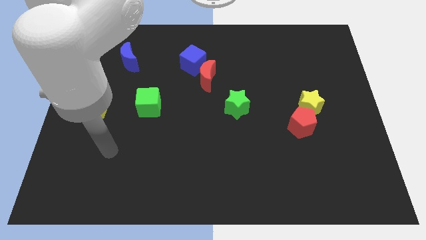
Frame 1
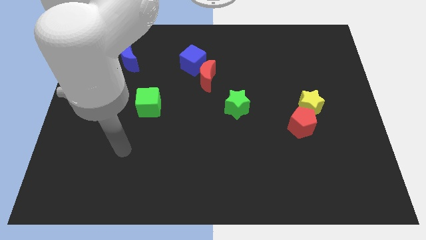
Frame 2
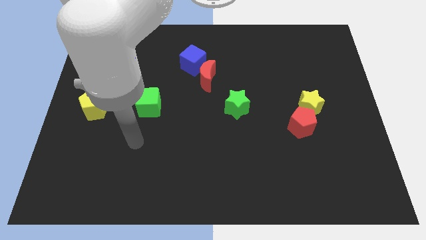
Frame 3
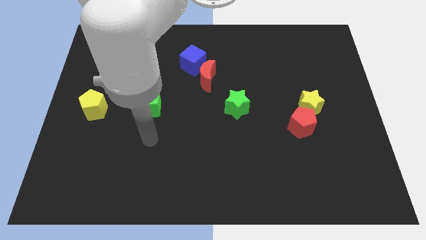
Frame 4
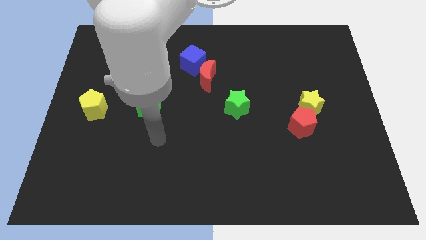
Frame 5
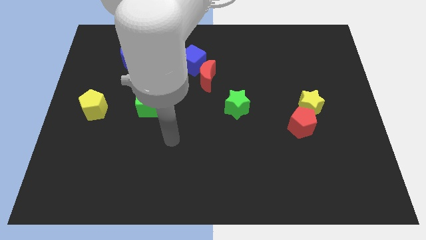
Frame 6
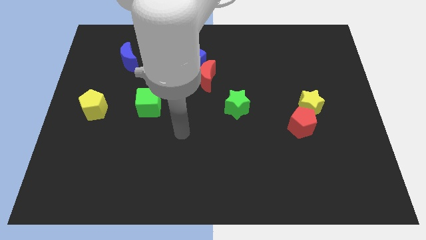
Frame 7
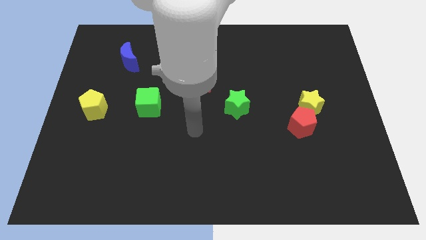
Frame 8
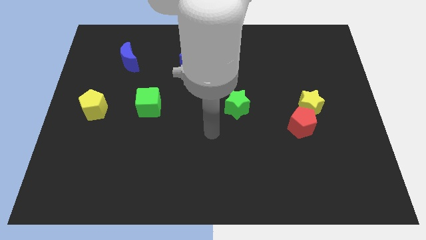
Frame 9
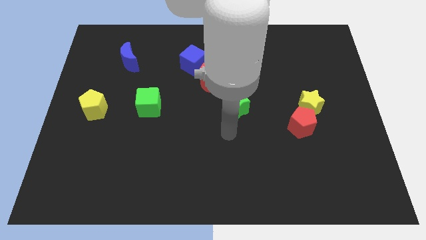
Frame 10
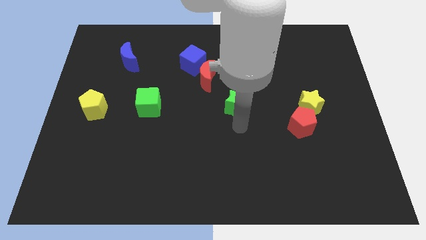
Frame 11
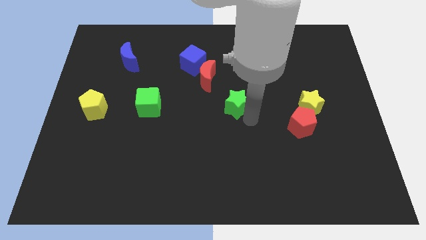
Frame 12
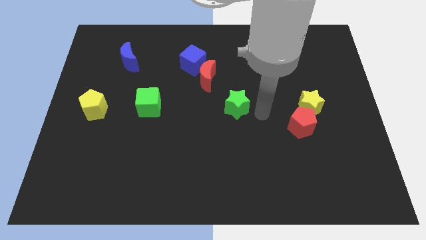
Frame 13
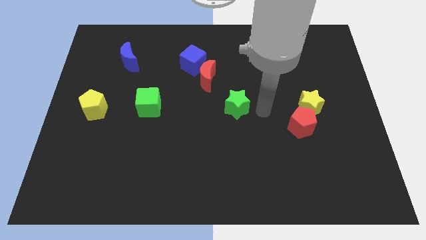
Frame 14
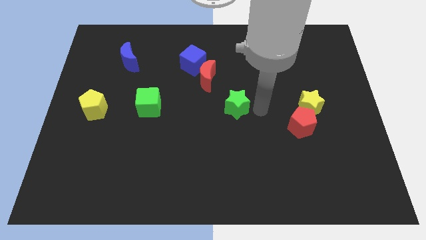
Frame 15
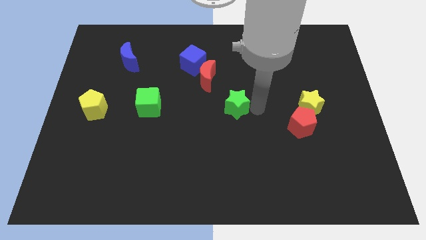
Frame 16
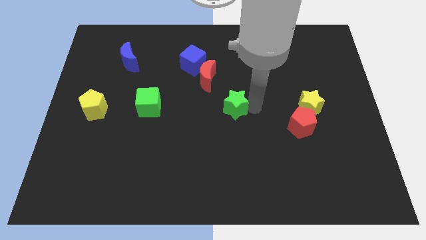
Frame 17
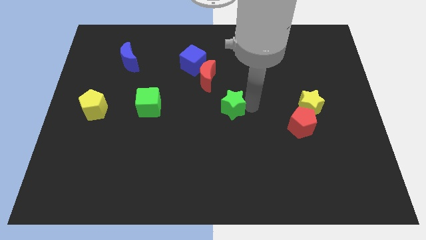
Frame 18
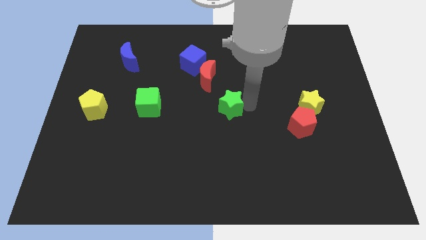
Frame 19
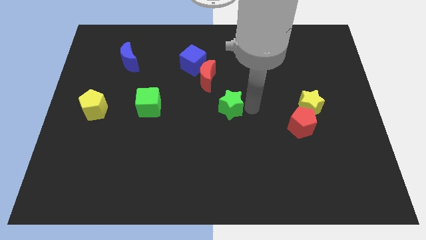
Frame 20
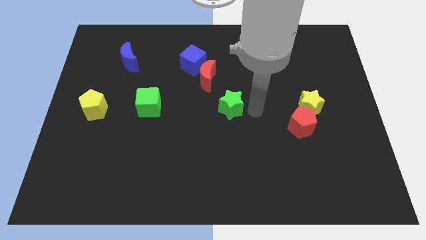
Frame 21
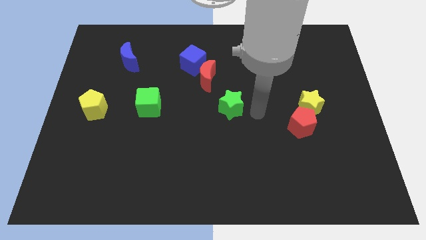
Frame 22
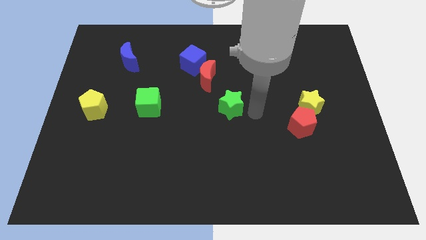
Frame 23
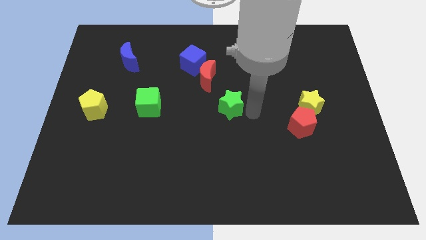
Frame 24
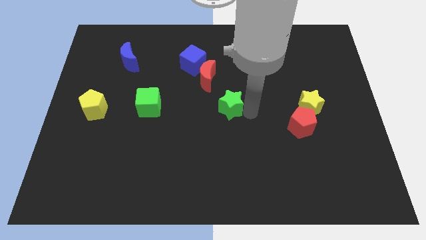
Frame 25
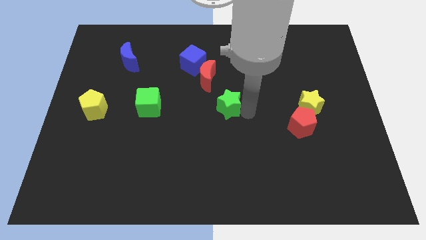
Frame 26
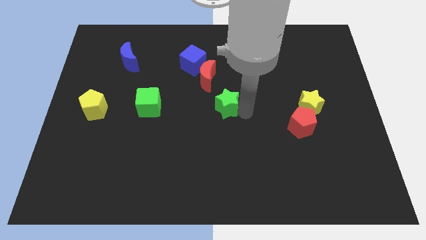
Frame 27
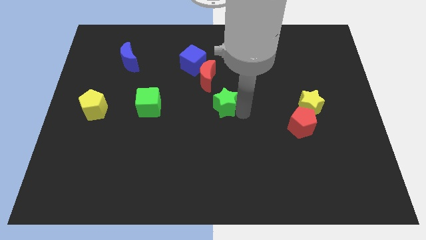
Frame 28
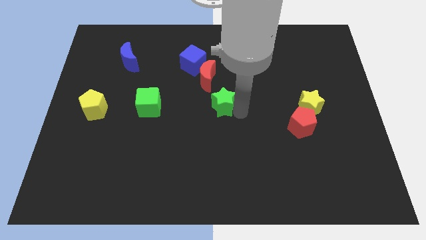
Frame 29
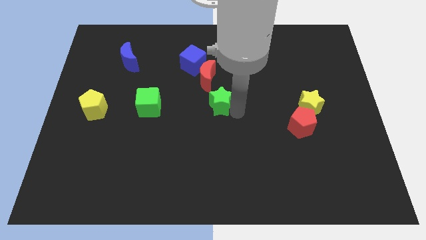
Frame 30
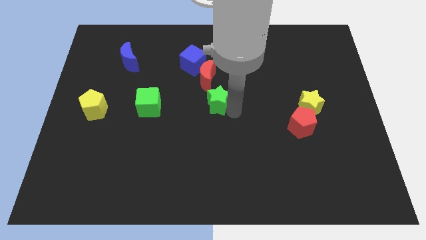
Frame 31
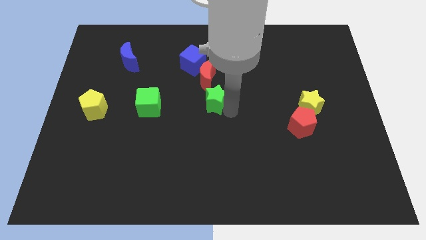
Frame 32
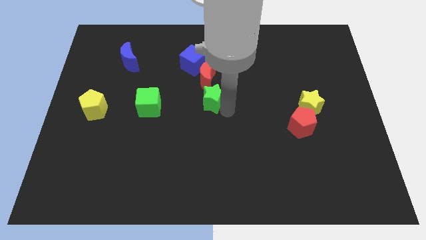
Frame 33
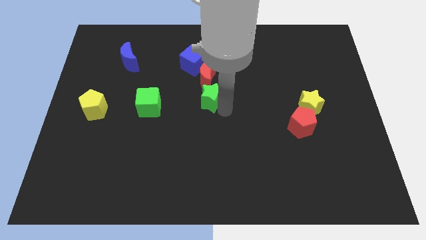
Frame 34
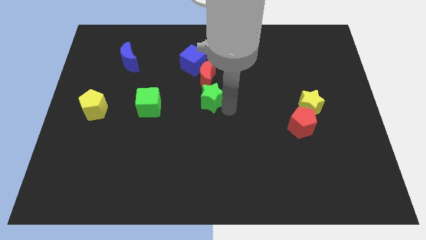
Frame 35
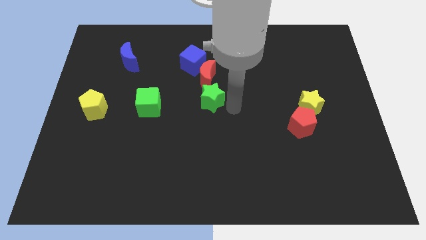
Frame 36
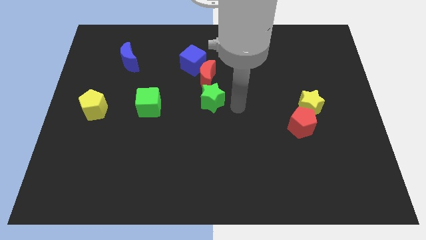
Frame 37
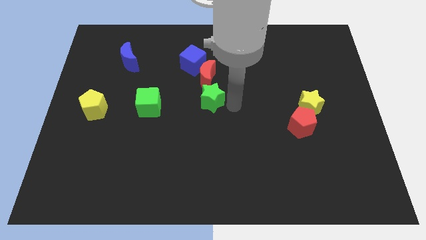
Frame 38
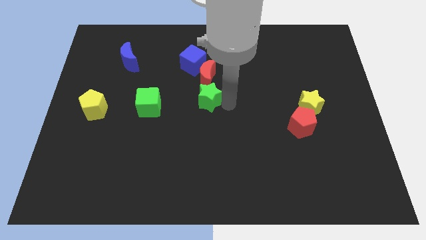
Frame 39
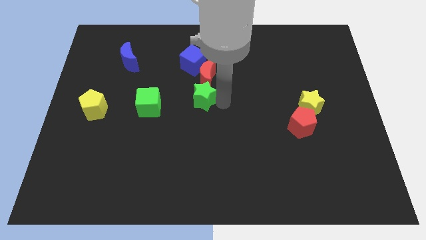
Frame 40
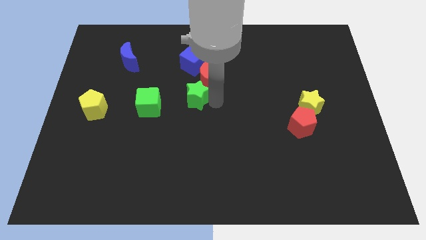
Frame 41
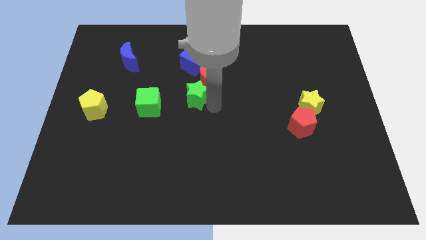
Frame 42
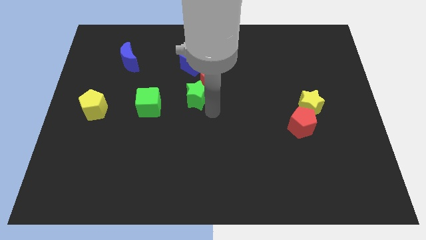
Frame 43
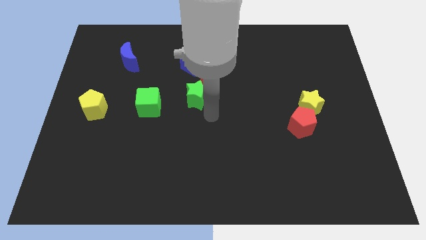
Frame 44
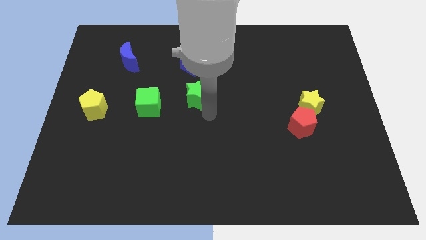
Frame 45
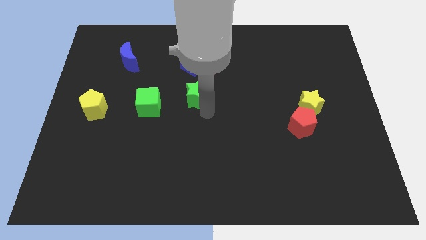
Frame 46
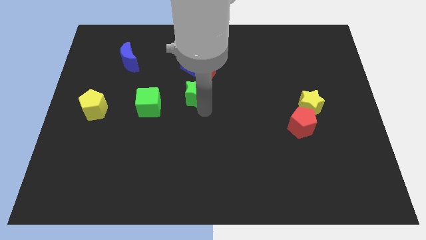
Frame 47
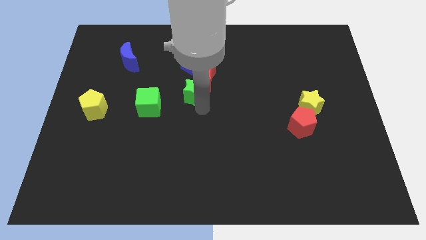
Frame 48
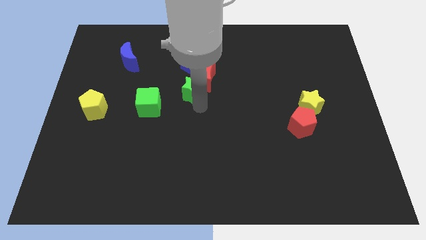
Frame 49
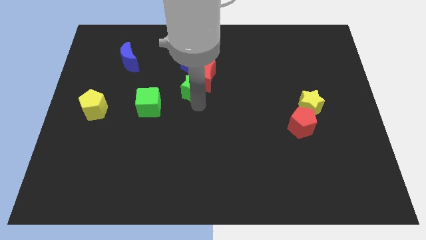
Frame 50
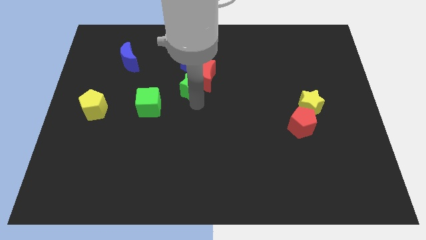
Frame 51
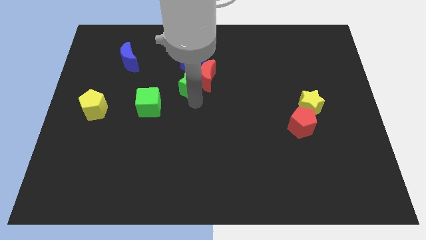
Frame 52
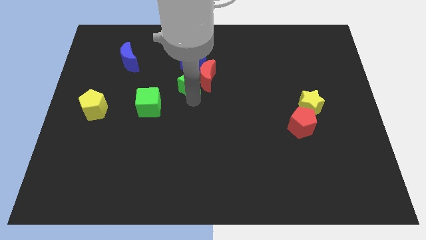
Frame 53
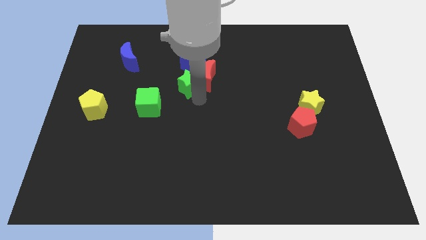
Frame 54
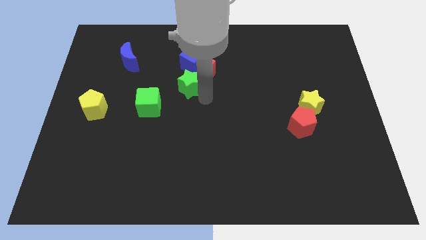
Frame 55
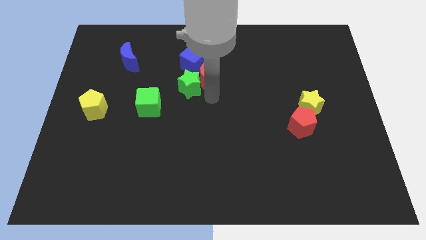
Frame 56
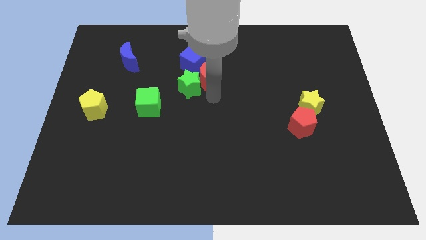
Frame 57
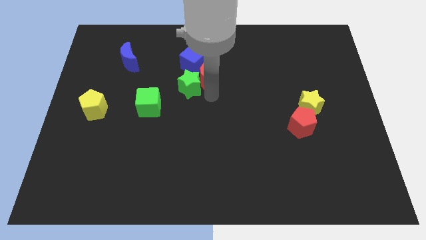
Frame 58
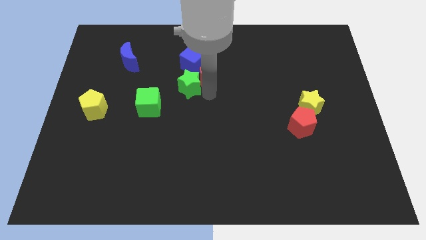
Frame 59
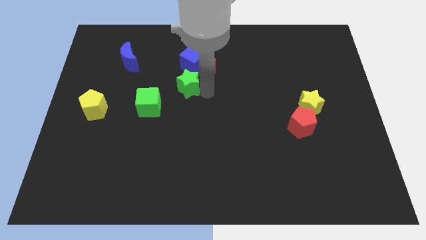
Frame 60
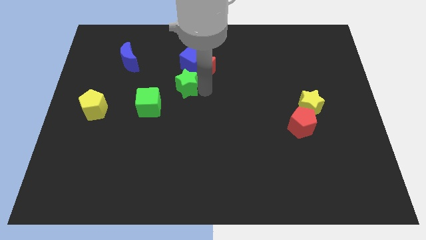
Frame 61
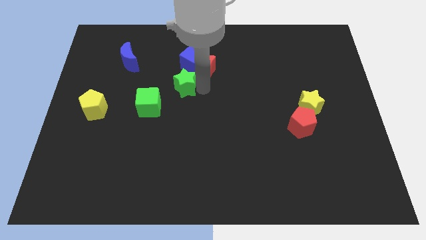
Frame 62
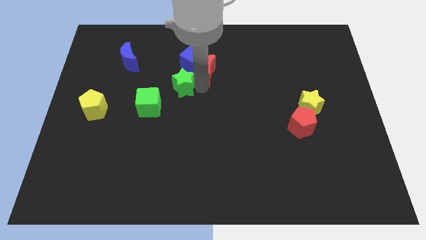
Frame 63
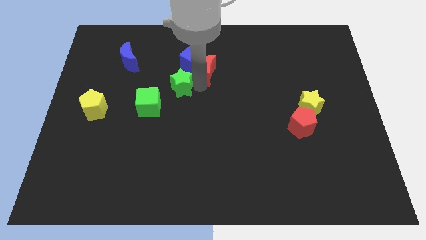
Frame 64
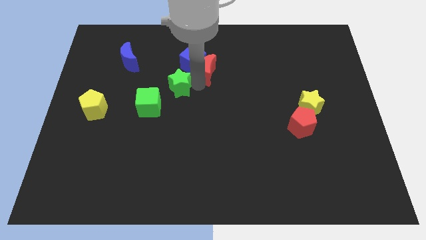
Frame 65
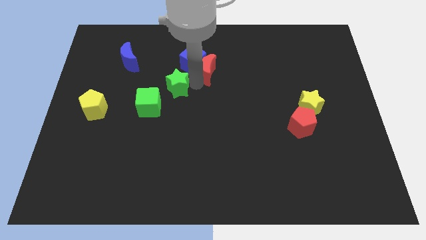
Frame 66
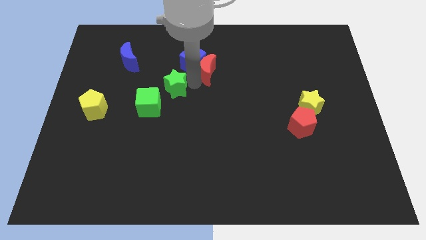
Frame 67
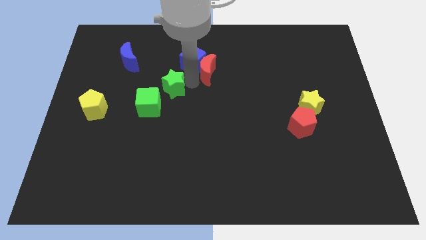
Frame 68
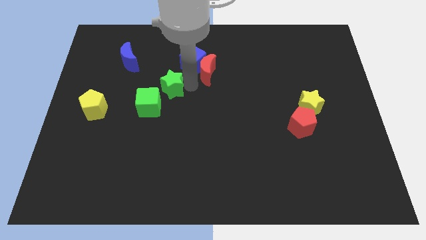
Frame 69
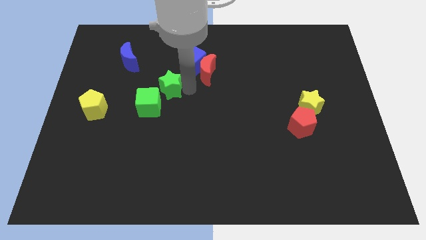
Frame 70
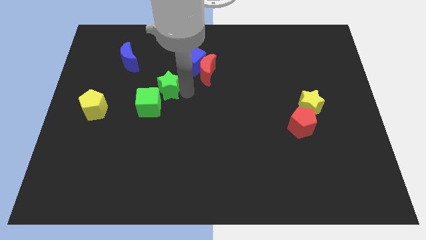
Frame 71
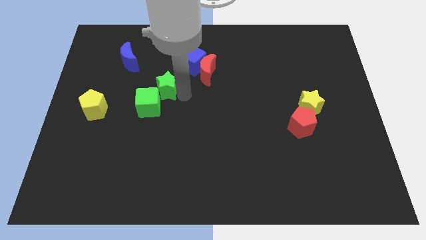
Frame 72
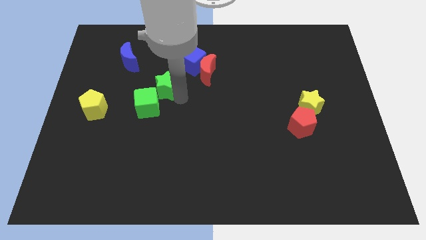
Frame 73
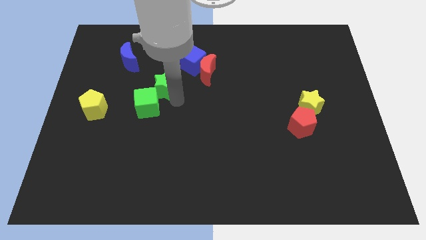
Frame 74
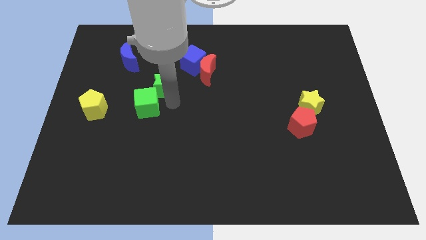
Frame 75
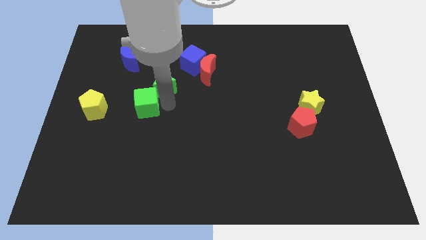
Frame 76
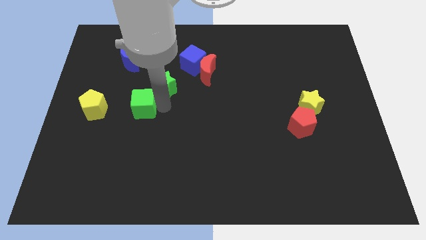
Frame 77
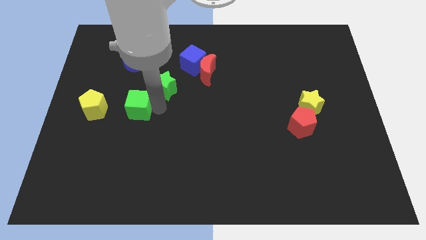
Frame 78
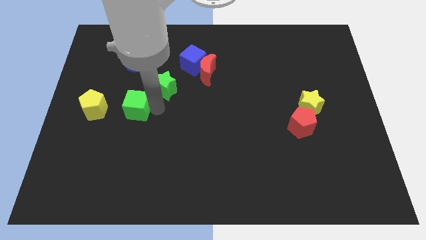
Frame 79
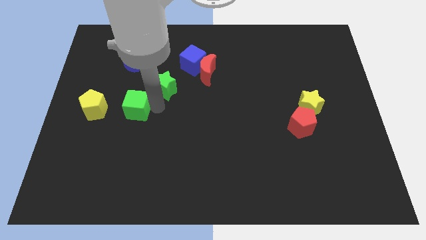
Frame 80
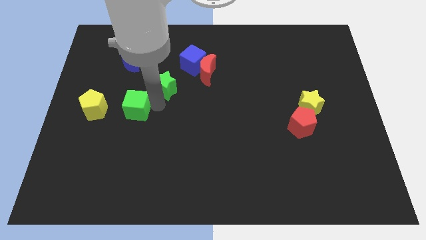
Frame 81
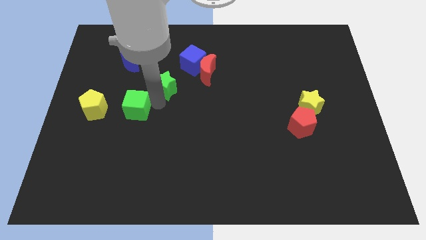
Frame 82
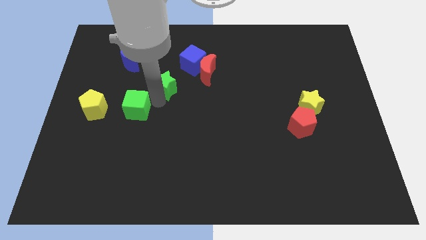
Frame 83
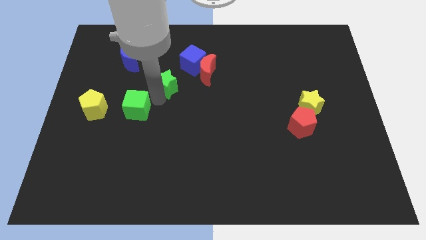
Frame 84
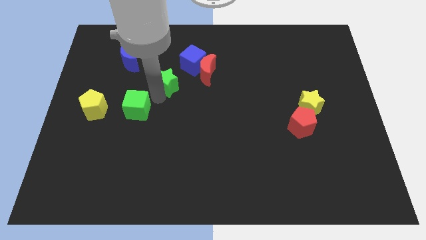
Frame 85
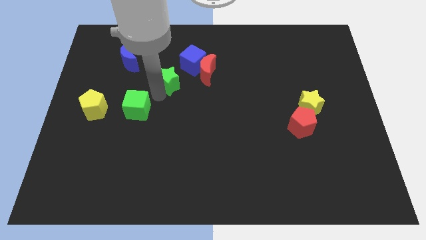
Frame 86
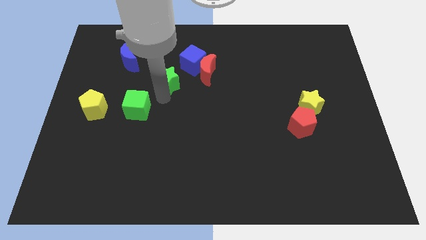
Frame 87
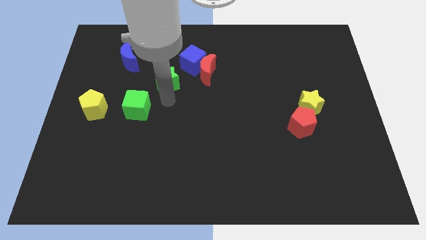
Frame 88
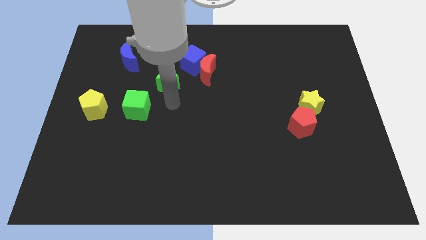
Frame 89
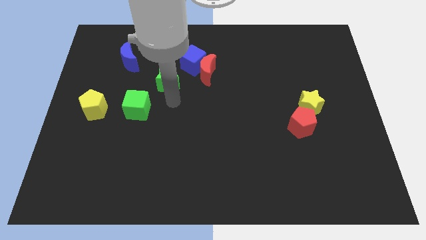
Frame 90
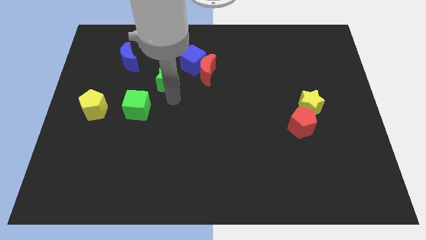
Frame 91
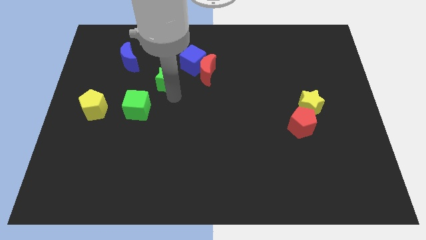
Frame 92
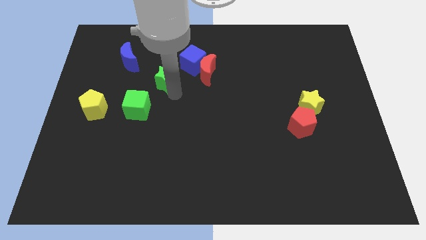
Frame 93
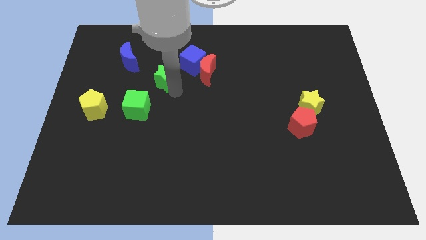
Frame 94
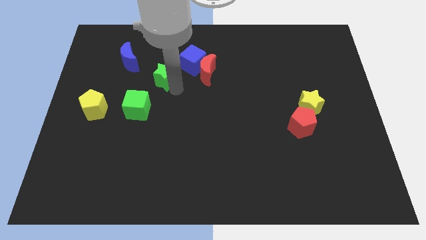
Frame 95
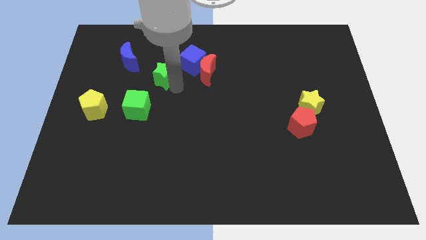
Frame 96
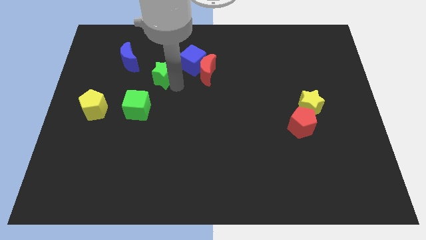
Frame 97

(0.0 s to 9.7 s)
push the green star left of the blue cube
